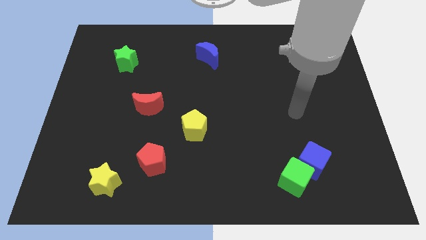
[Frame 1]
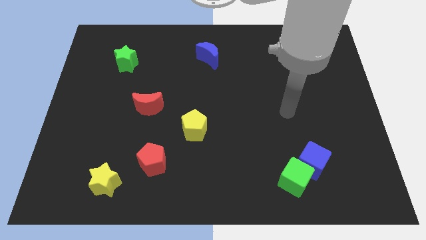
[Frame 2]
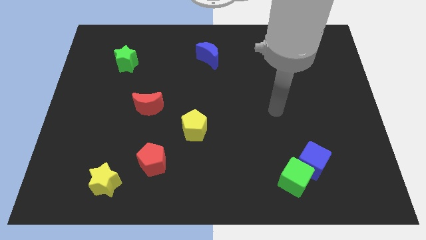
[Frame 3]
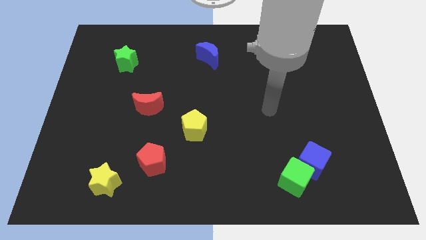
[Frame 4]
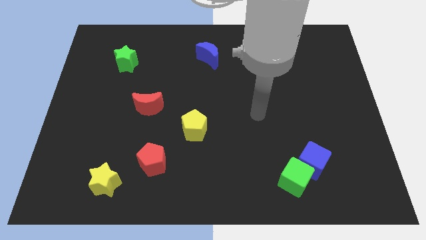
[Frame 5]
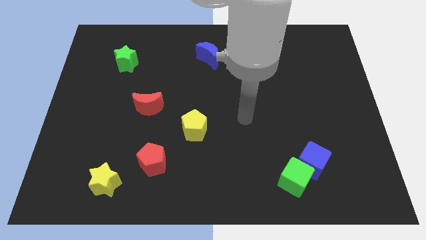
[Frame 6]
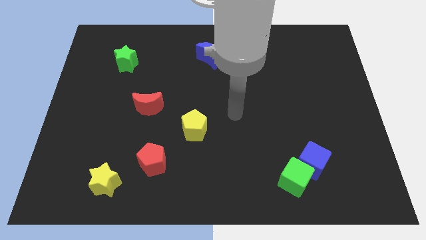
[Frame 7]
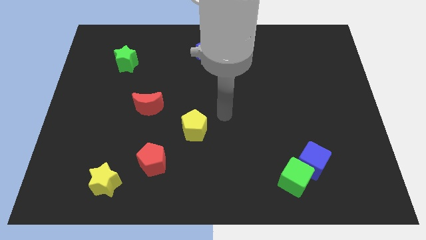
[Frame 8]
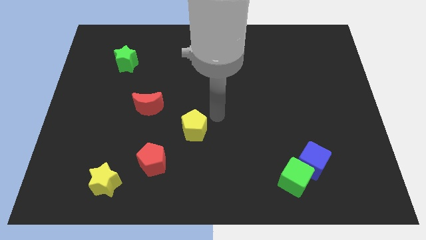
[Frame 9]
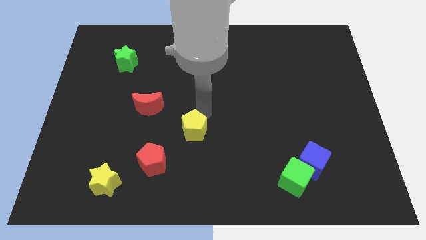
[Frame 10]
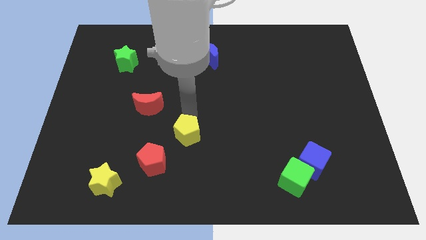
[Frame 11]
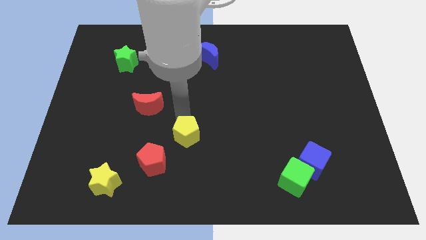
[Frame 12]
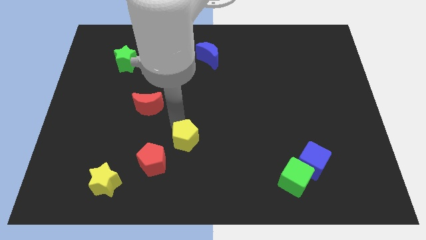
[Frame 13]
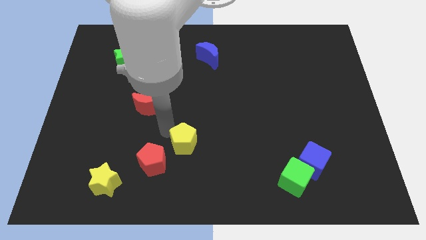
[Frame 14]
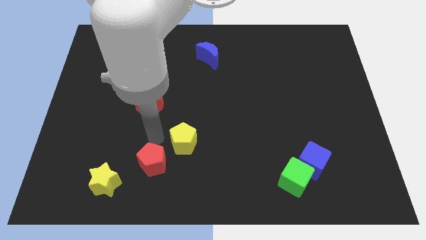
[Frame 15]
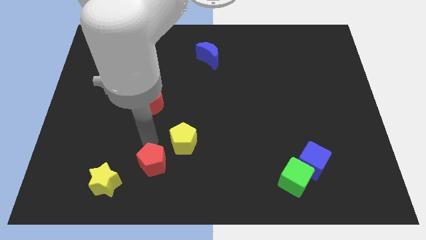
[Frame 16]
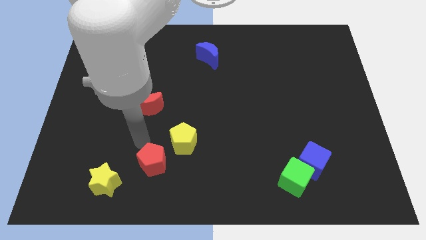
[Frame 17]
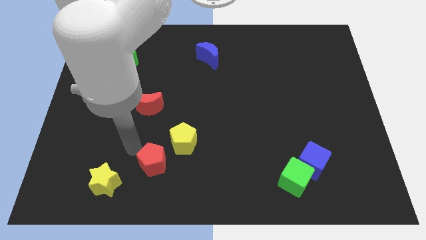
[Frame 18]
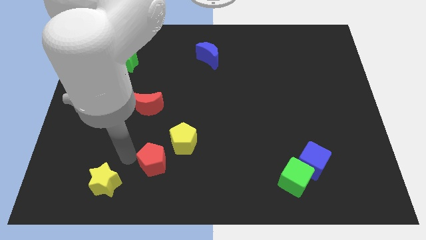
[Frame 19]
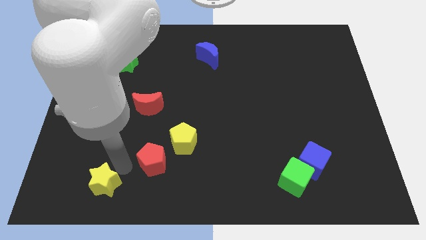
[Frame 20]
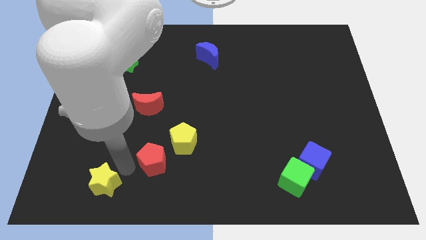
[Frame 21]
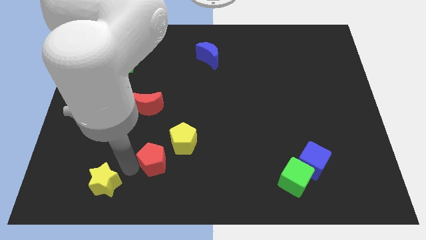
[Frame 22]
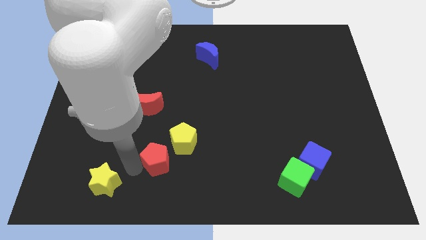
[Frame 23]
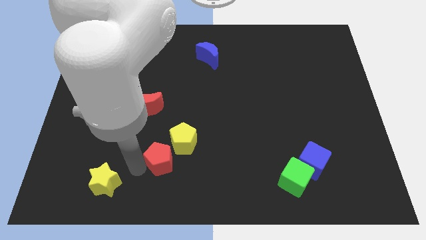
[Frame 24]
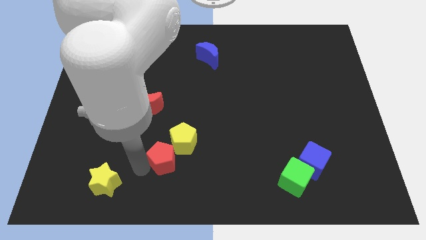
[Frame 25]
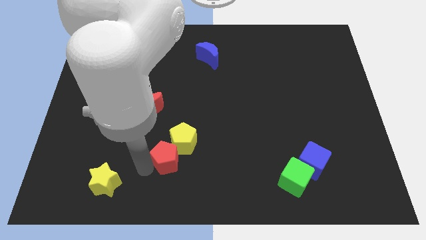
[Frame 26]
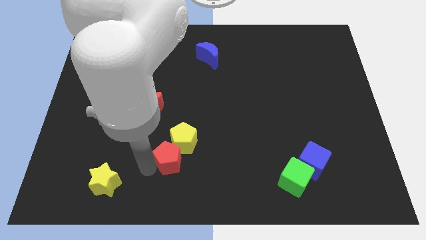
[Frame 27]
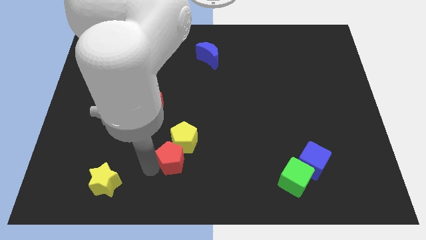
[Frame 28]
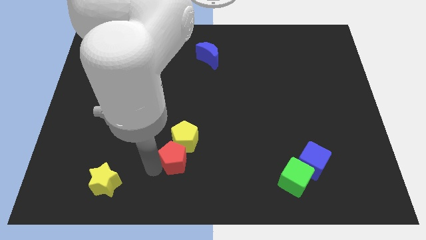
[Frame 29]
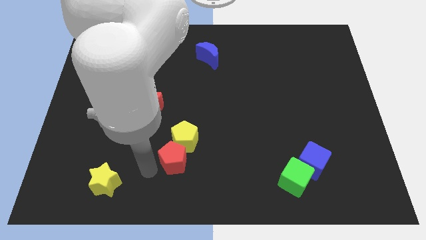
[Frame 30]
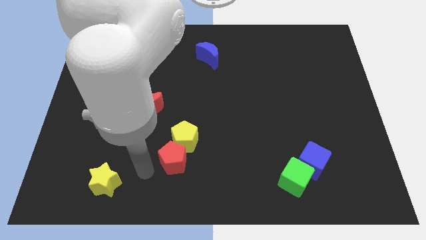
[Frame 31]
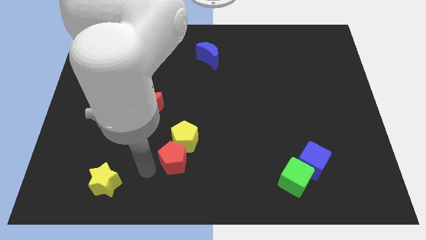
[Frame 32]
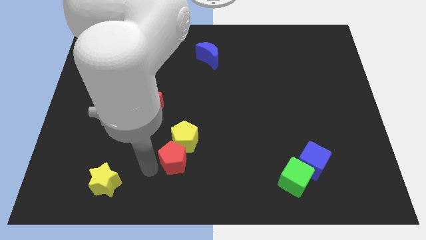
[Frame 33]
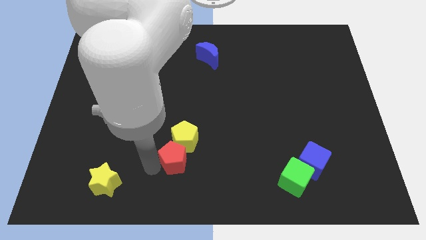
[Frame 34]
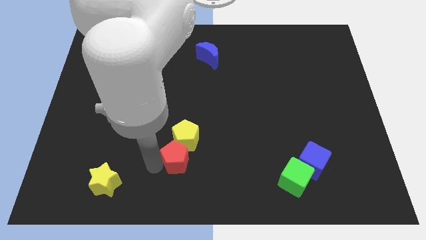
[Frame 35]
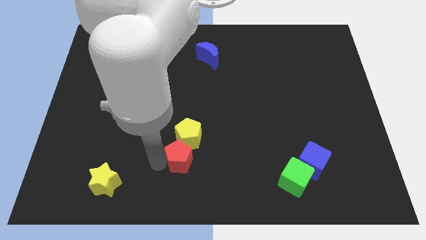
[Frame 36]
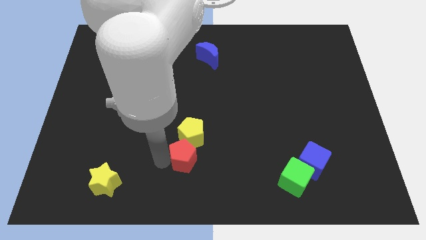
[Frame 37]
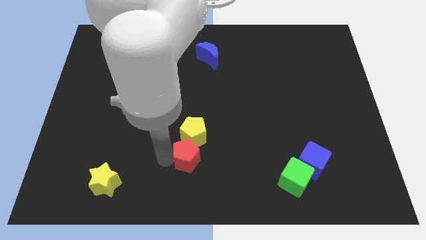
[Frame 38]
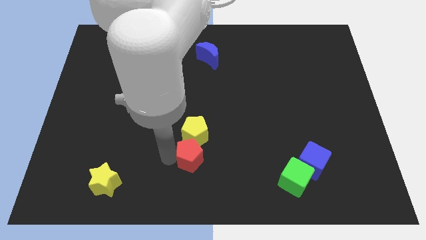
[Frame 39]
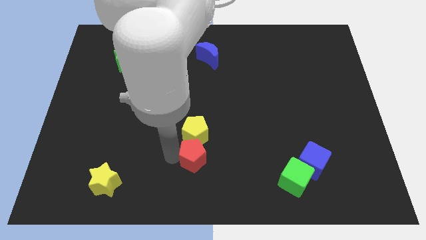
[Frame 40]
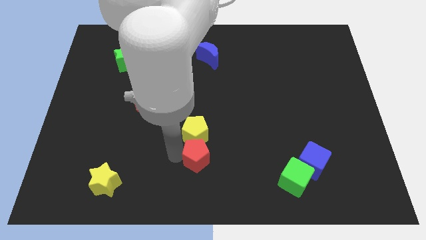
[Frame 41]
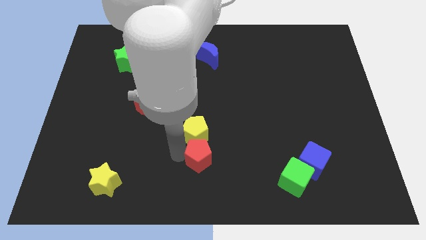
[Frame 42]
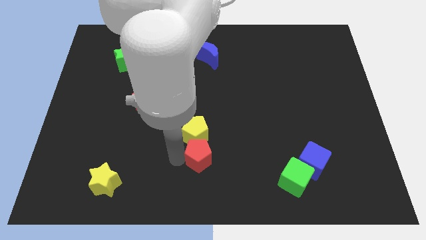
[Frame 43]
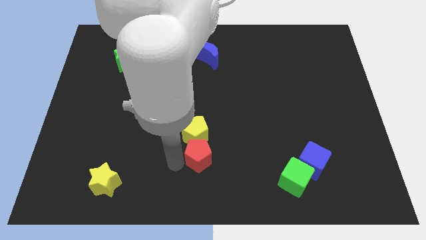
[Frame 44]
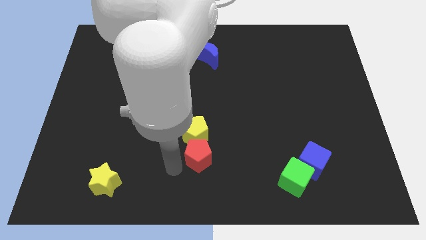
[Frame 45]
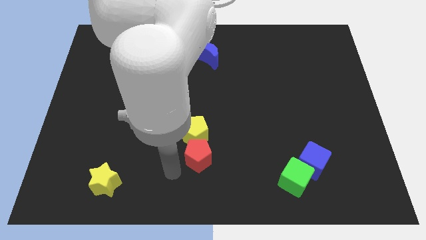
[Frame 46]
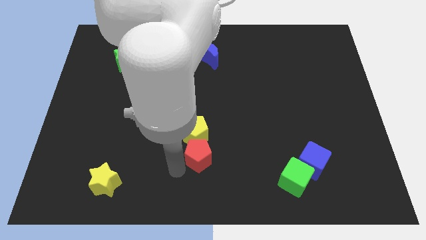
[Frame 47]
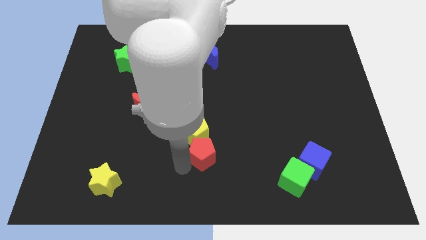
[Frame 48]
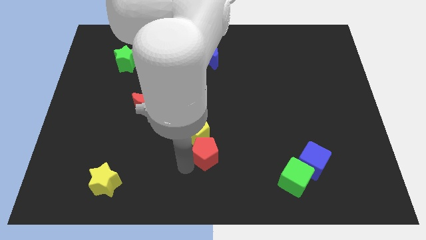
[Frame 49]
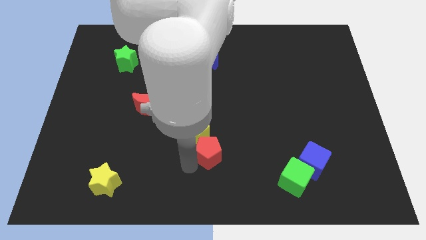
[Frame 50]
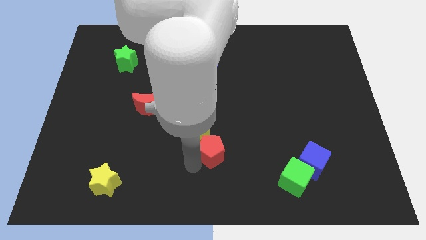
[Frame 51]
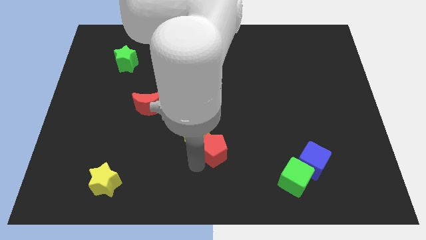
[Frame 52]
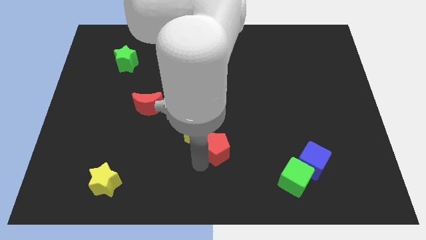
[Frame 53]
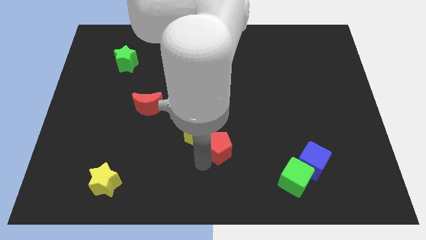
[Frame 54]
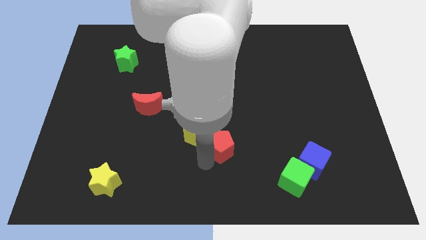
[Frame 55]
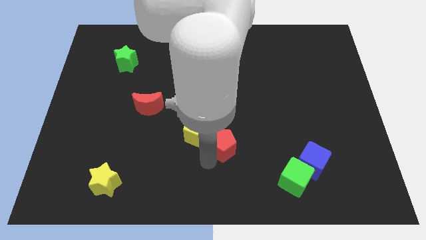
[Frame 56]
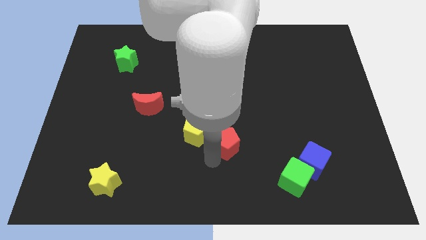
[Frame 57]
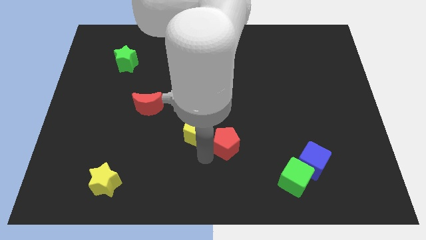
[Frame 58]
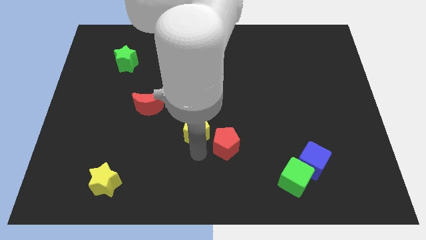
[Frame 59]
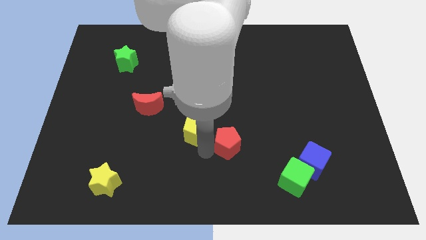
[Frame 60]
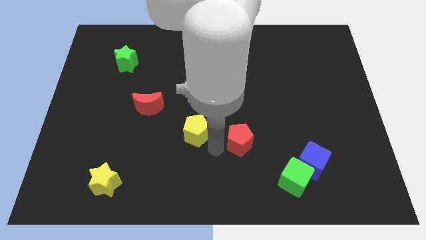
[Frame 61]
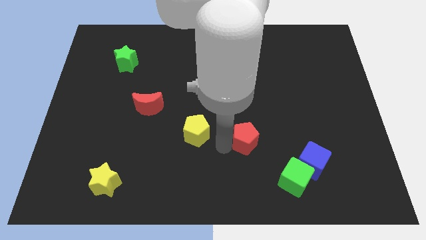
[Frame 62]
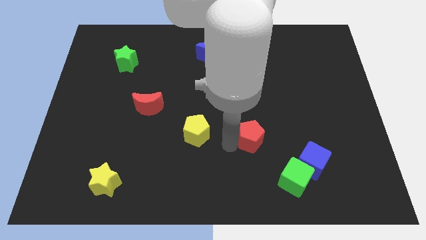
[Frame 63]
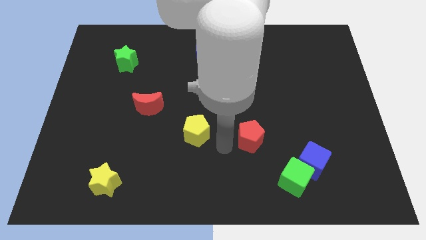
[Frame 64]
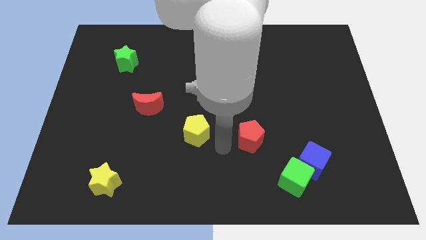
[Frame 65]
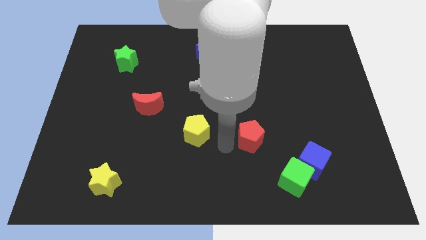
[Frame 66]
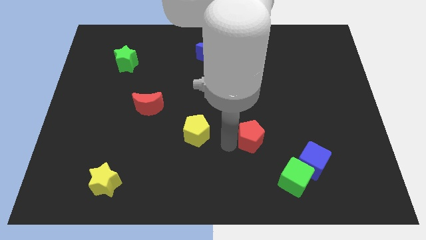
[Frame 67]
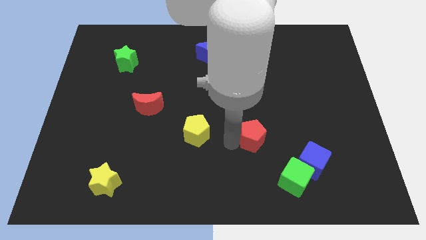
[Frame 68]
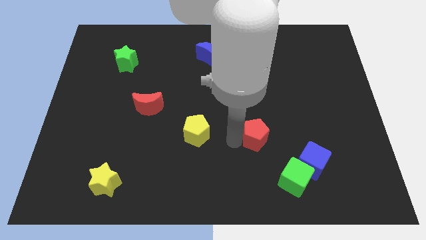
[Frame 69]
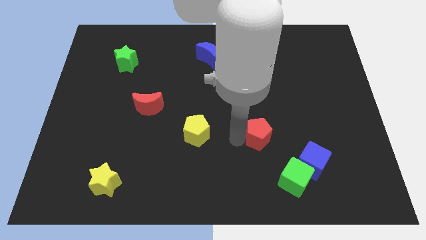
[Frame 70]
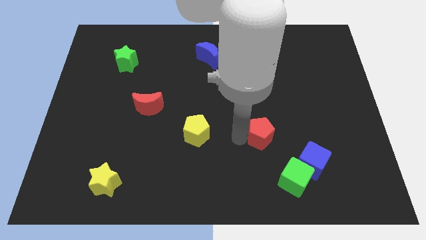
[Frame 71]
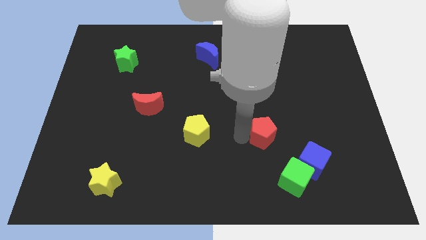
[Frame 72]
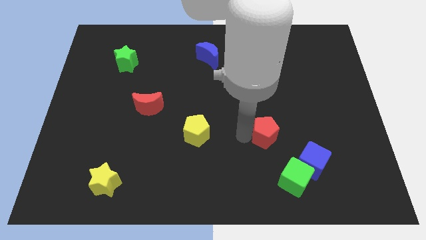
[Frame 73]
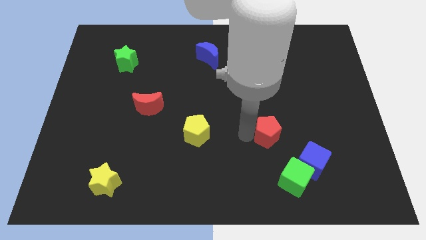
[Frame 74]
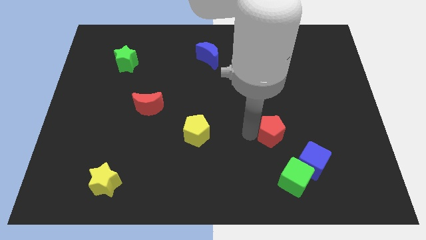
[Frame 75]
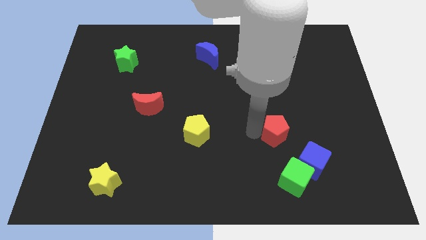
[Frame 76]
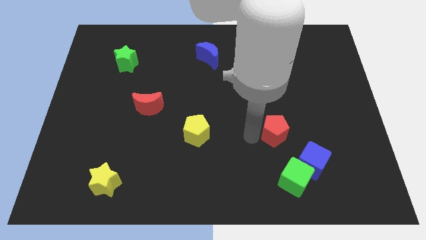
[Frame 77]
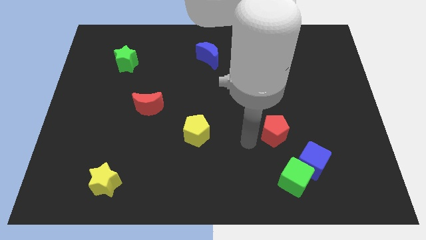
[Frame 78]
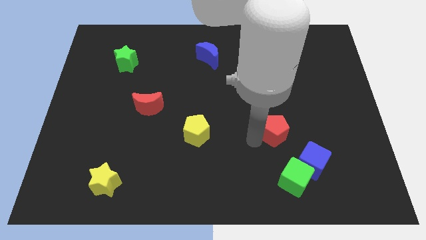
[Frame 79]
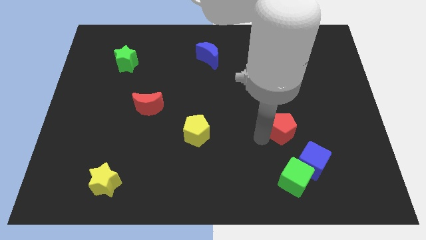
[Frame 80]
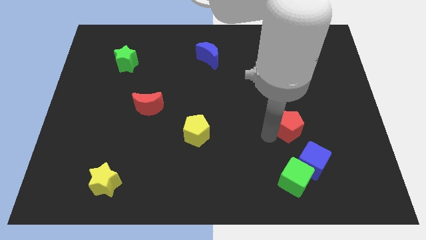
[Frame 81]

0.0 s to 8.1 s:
move the red pentagon to the top side of the blue cube
